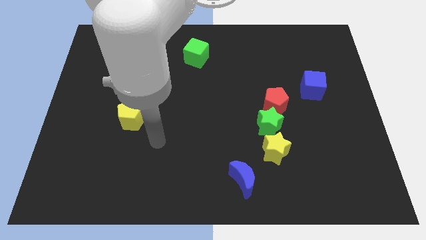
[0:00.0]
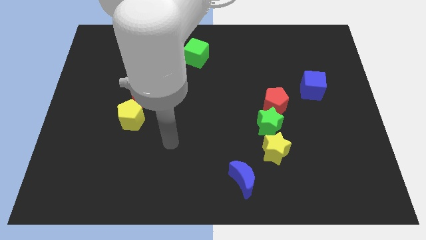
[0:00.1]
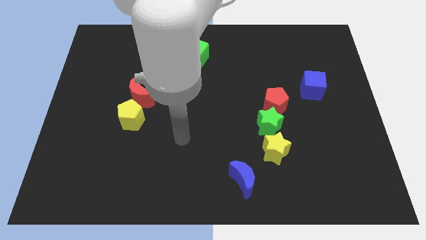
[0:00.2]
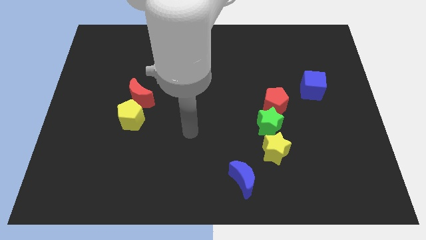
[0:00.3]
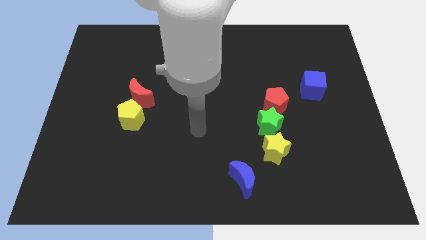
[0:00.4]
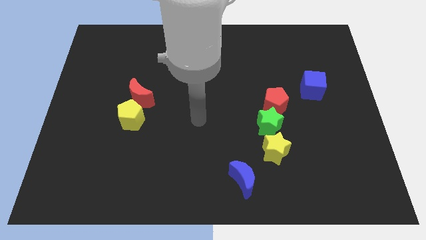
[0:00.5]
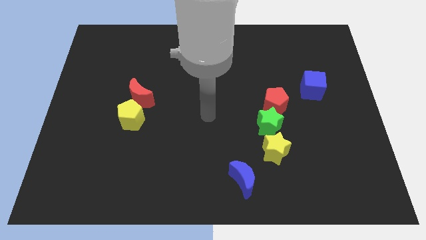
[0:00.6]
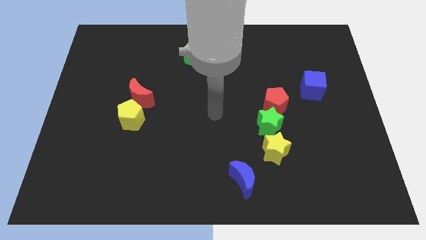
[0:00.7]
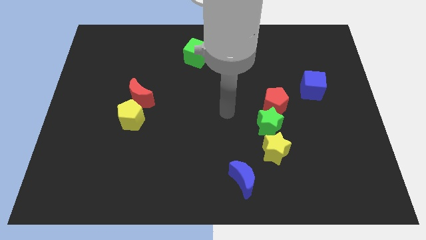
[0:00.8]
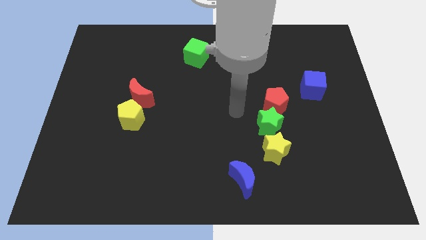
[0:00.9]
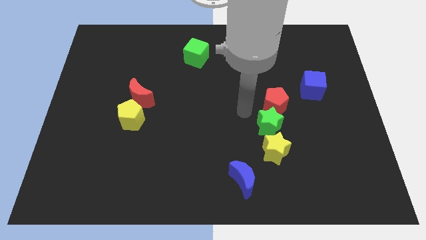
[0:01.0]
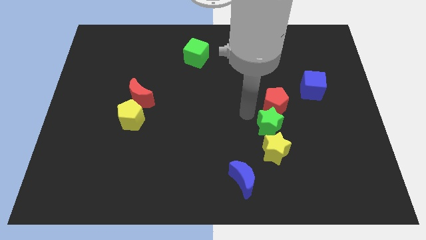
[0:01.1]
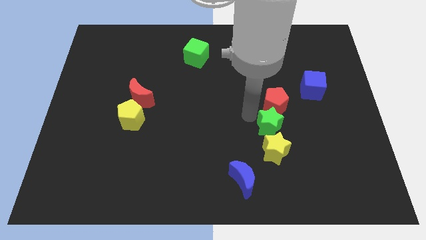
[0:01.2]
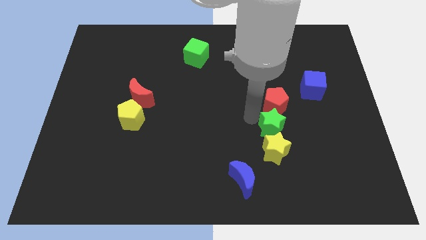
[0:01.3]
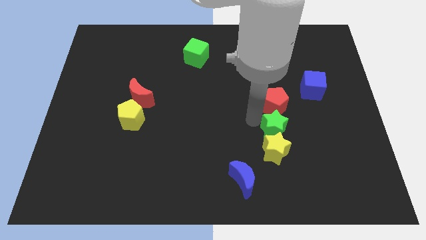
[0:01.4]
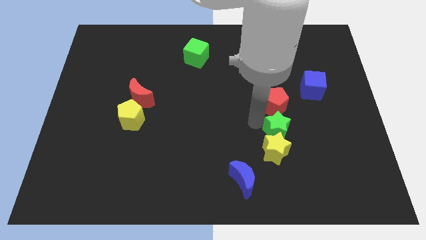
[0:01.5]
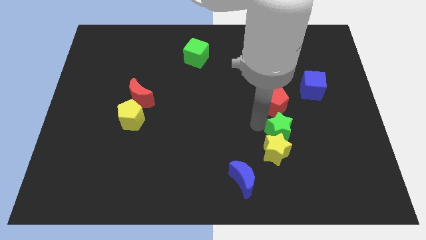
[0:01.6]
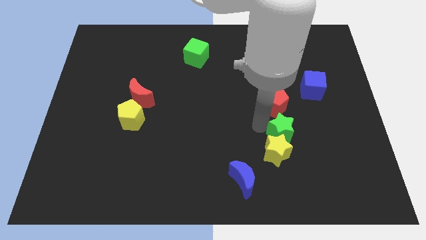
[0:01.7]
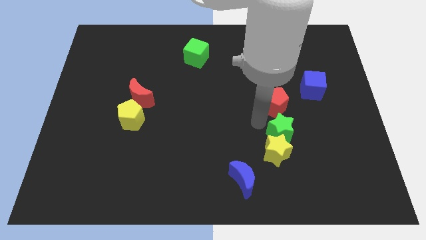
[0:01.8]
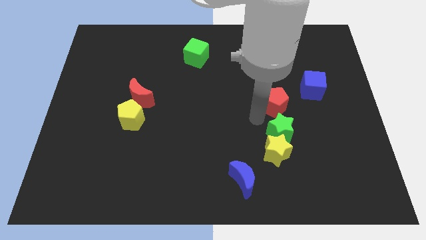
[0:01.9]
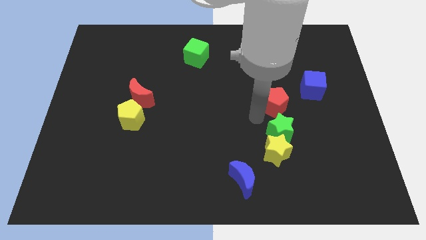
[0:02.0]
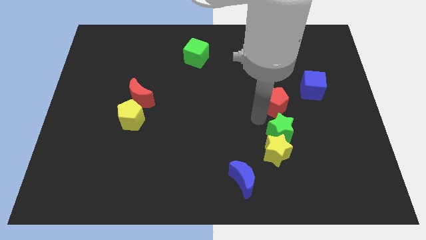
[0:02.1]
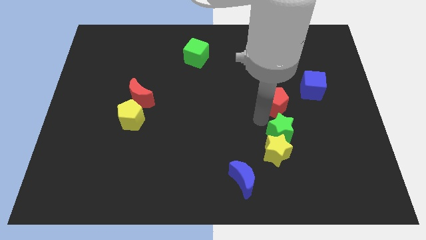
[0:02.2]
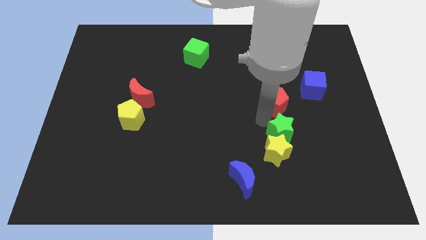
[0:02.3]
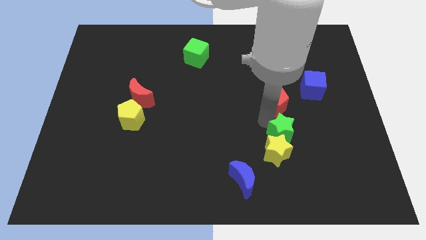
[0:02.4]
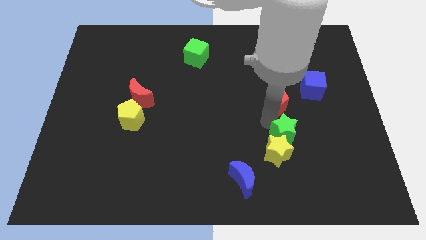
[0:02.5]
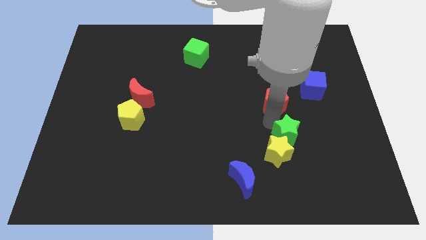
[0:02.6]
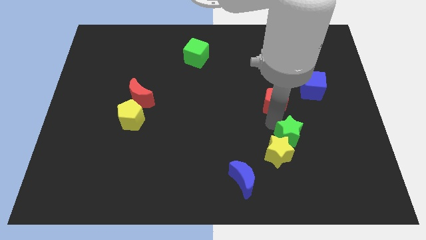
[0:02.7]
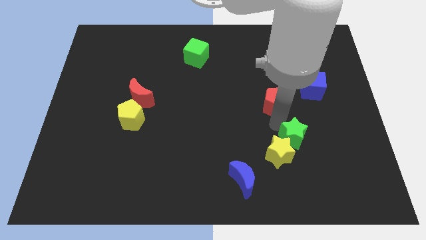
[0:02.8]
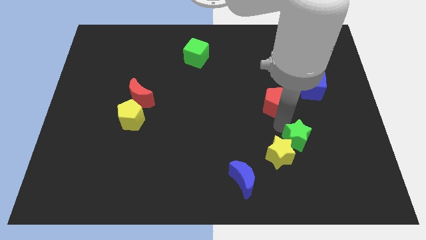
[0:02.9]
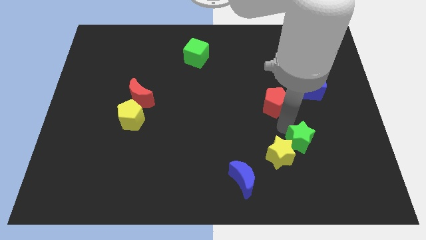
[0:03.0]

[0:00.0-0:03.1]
slightly move the green star down and then to the right

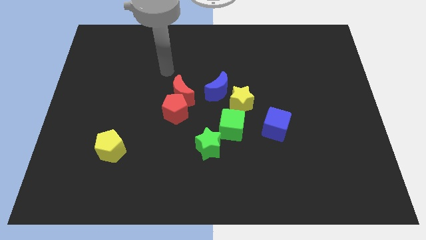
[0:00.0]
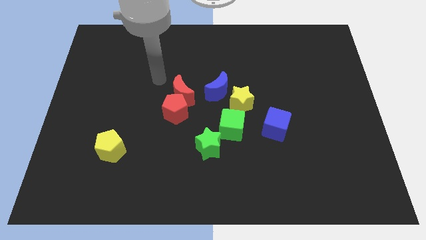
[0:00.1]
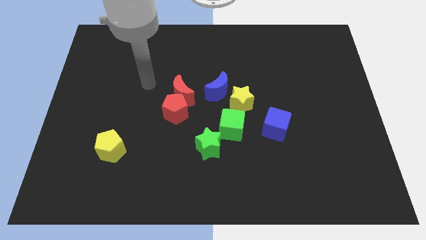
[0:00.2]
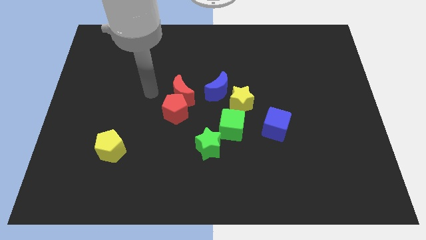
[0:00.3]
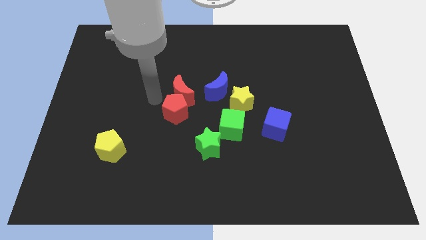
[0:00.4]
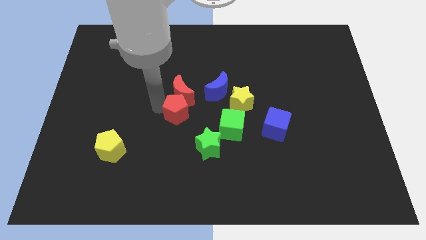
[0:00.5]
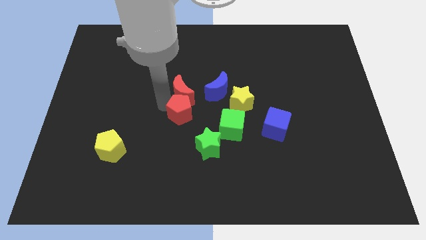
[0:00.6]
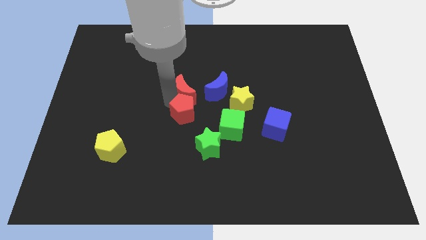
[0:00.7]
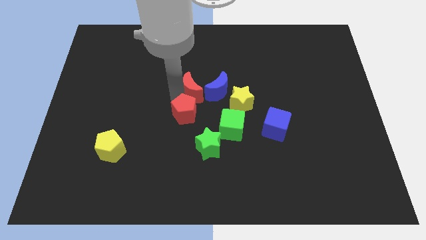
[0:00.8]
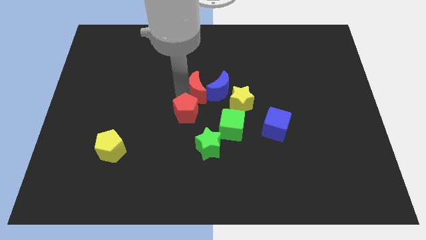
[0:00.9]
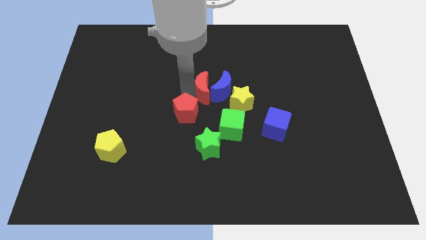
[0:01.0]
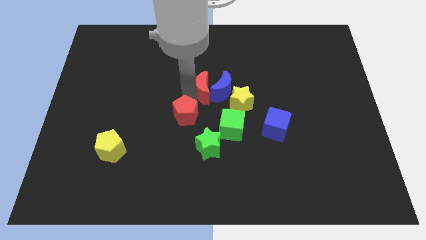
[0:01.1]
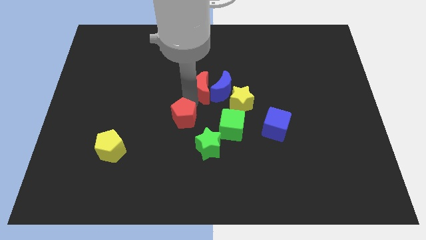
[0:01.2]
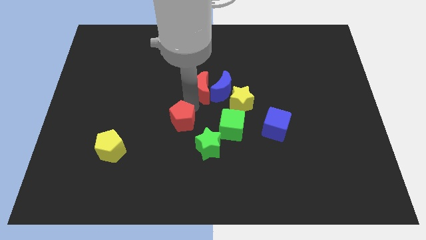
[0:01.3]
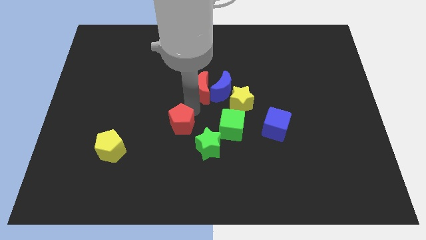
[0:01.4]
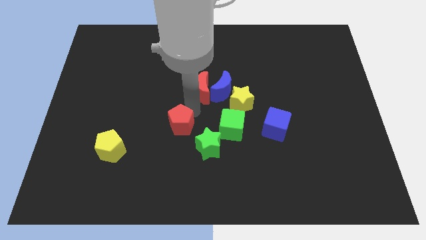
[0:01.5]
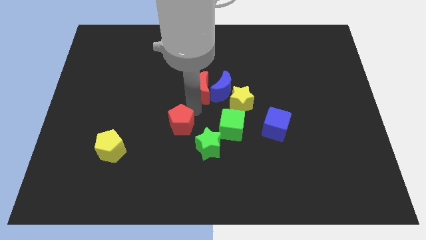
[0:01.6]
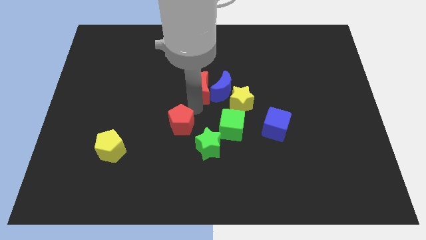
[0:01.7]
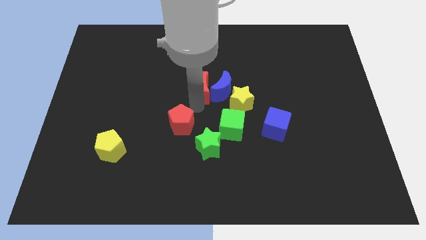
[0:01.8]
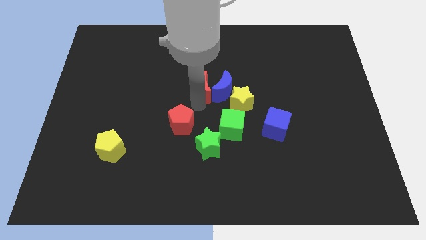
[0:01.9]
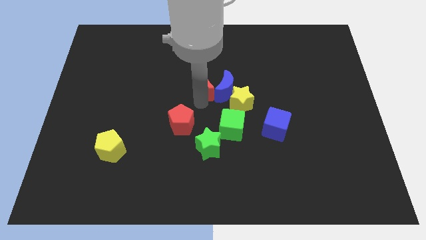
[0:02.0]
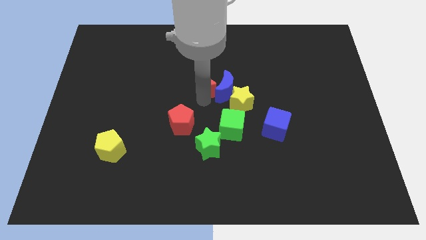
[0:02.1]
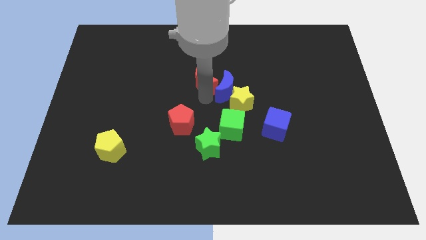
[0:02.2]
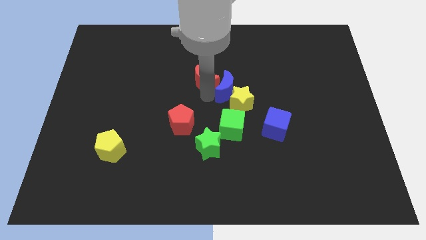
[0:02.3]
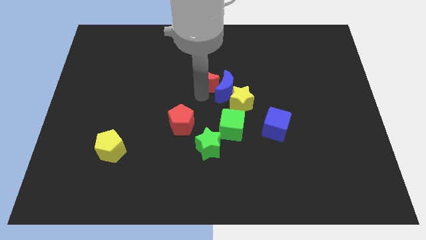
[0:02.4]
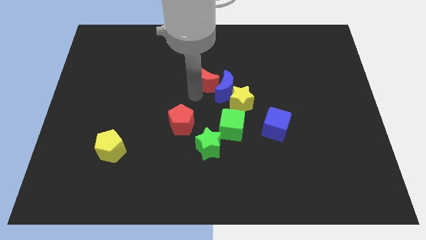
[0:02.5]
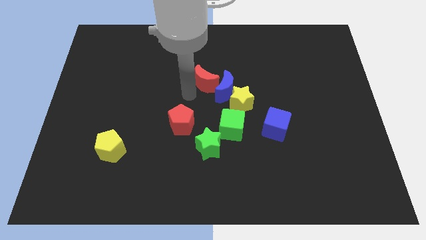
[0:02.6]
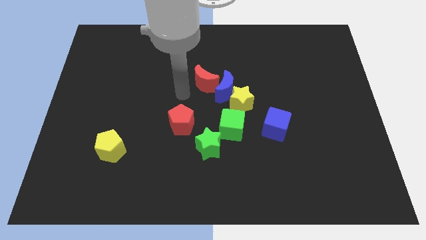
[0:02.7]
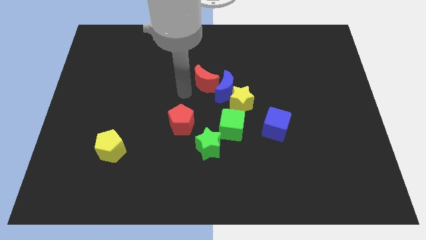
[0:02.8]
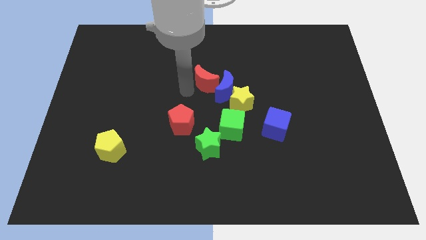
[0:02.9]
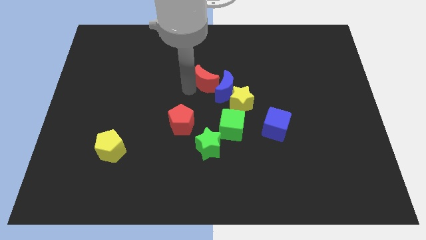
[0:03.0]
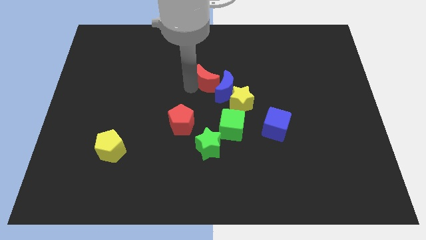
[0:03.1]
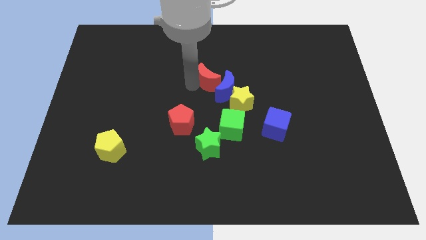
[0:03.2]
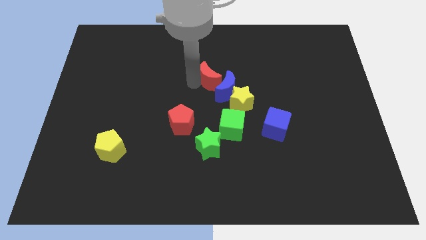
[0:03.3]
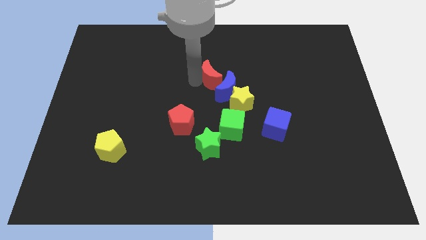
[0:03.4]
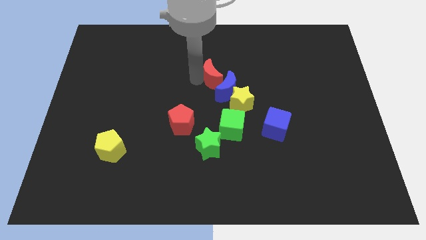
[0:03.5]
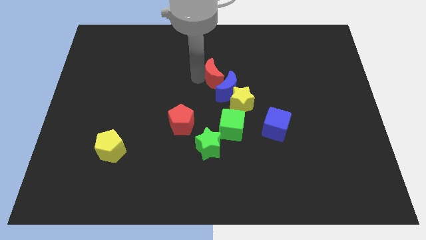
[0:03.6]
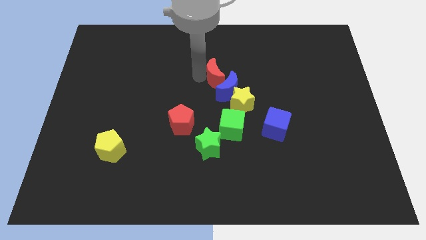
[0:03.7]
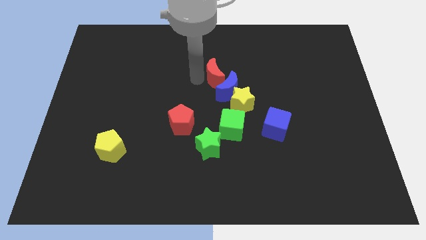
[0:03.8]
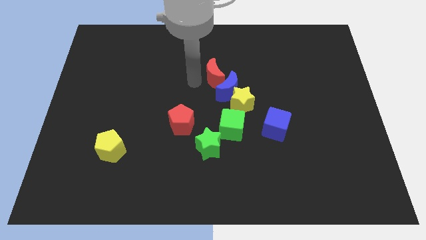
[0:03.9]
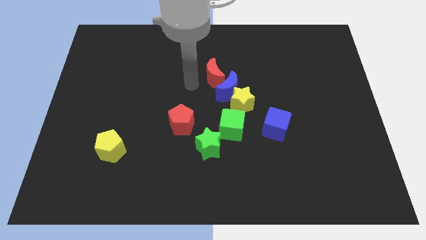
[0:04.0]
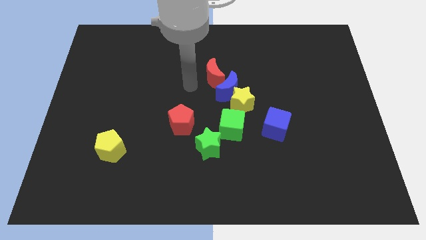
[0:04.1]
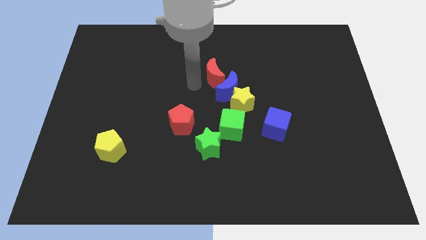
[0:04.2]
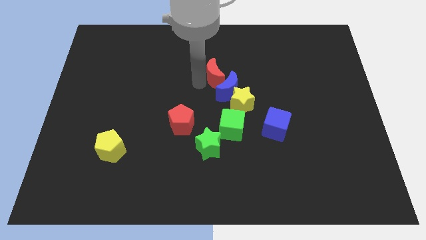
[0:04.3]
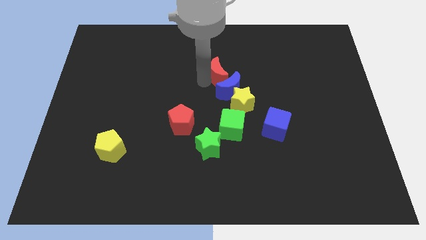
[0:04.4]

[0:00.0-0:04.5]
push the red moon right a bit

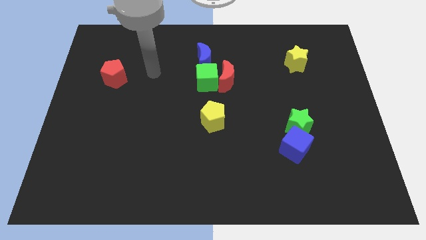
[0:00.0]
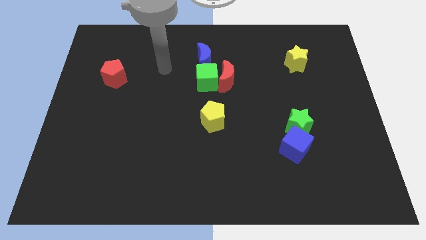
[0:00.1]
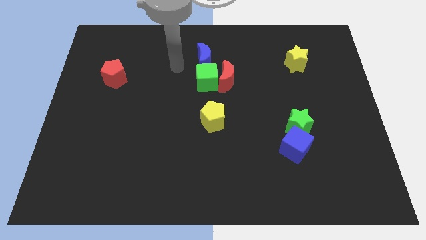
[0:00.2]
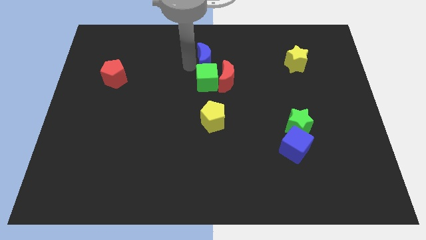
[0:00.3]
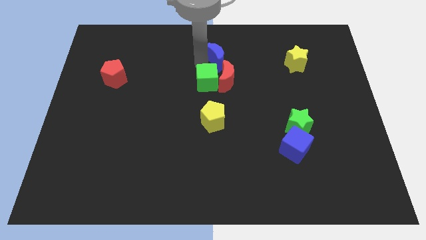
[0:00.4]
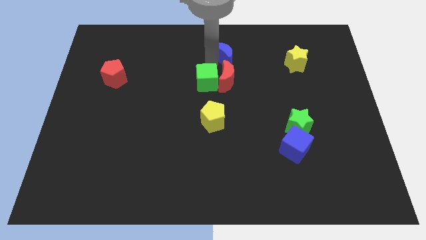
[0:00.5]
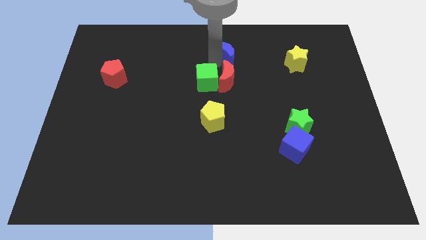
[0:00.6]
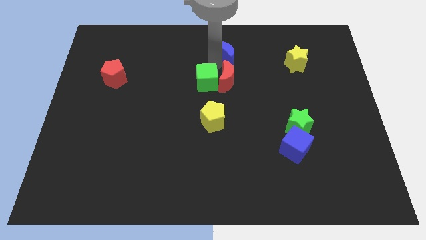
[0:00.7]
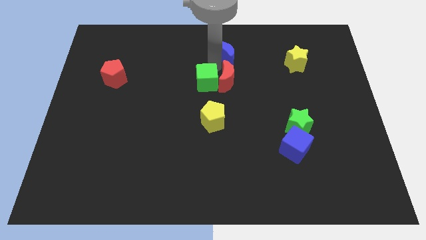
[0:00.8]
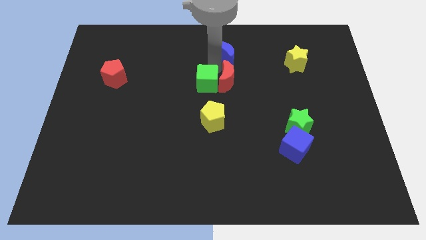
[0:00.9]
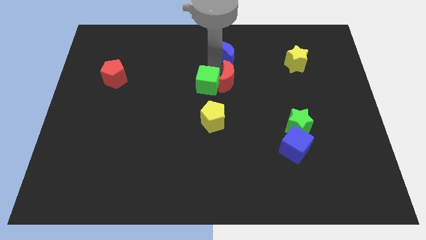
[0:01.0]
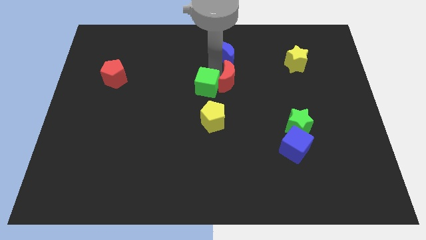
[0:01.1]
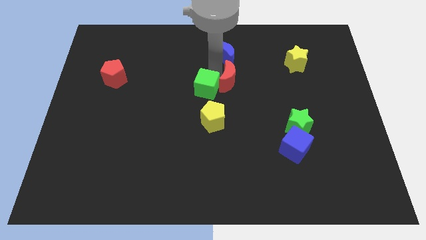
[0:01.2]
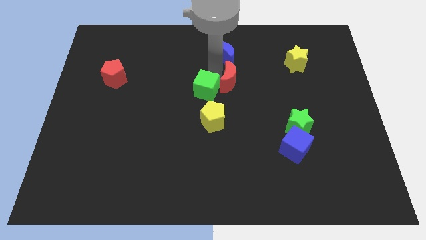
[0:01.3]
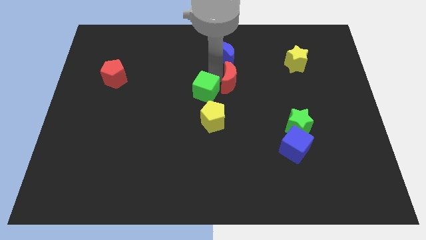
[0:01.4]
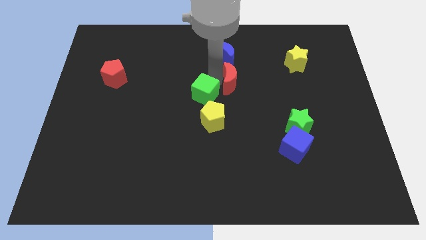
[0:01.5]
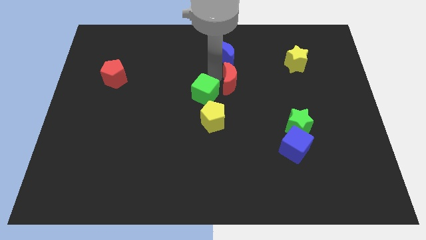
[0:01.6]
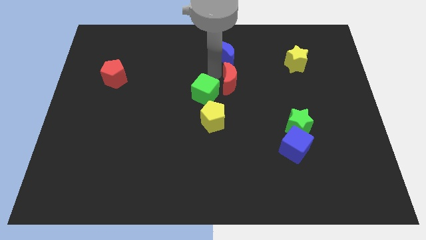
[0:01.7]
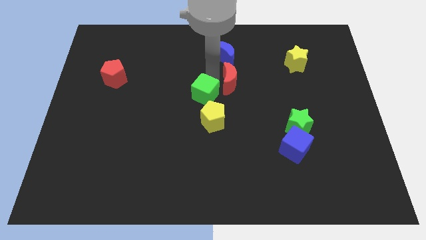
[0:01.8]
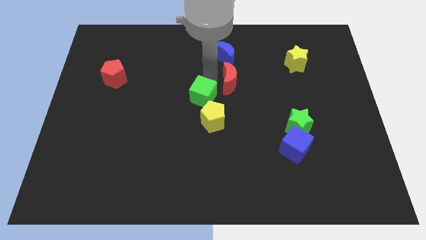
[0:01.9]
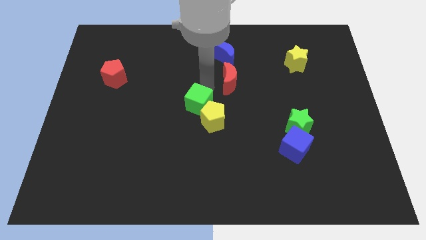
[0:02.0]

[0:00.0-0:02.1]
move the green cube downwards a little bit
